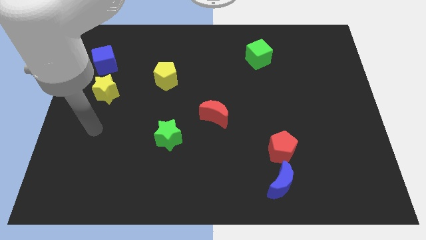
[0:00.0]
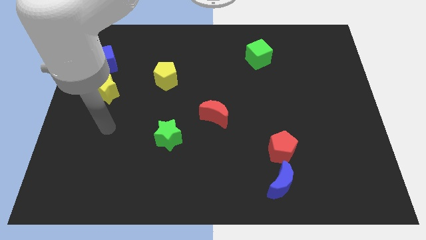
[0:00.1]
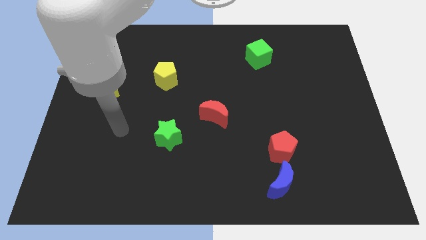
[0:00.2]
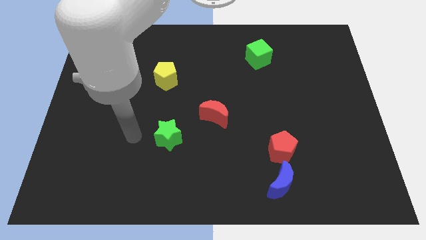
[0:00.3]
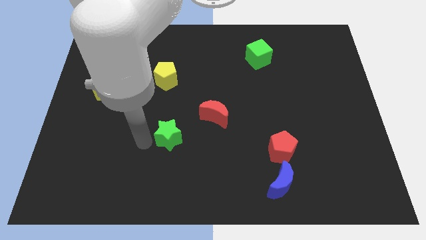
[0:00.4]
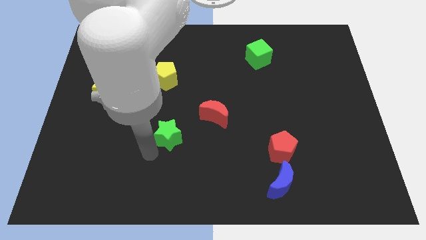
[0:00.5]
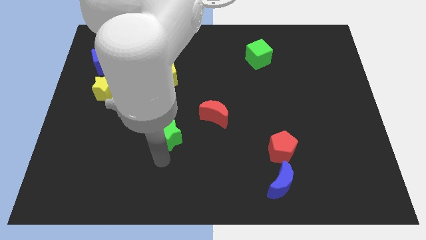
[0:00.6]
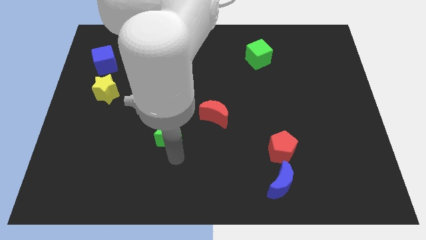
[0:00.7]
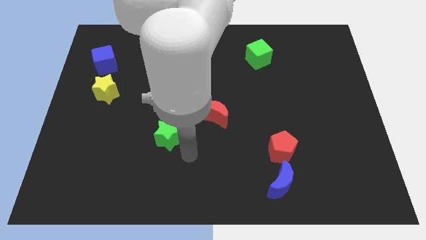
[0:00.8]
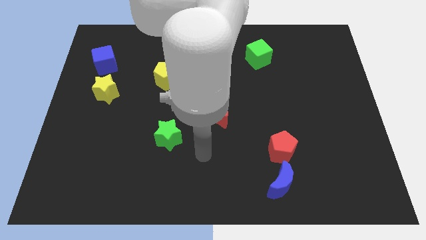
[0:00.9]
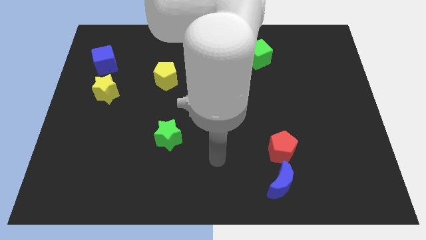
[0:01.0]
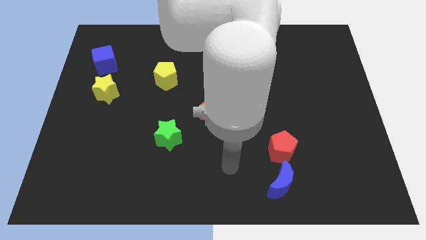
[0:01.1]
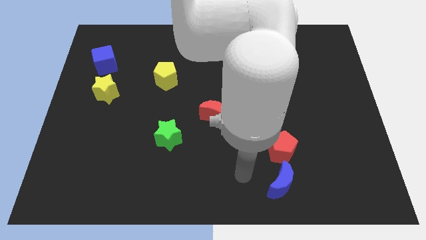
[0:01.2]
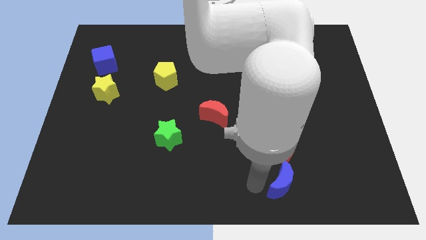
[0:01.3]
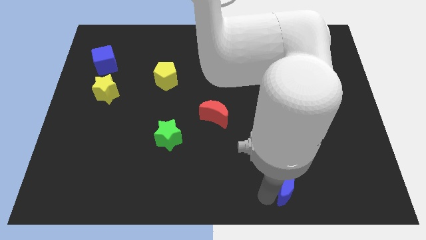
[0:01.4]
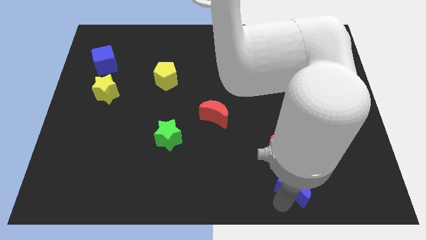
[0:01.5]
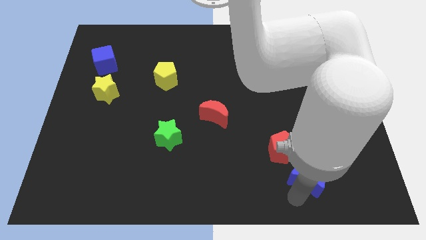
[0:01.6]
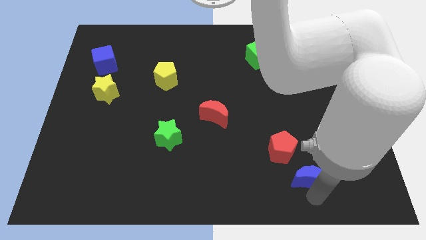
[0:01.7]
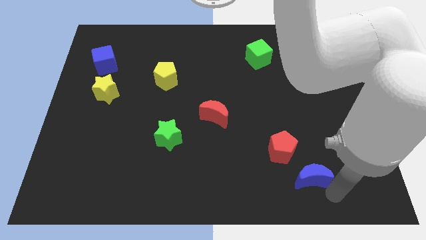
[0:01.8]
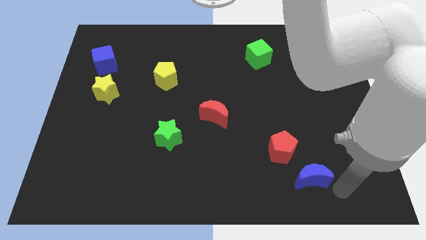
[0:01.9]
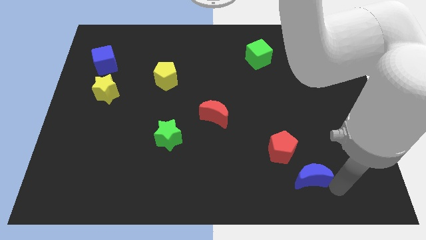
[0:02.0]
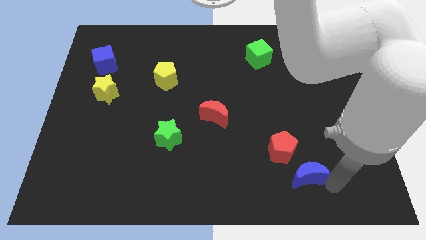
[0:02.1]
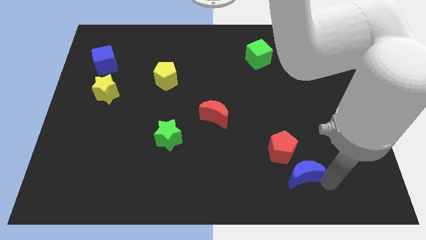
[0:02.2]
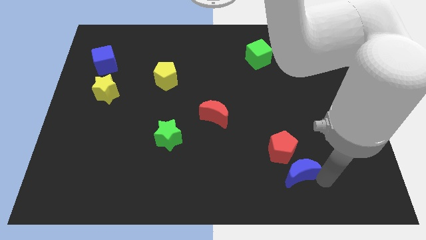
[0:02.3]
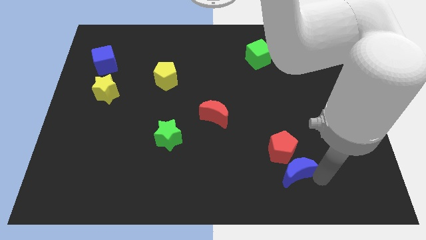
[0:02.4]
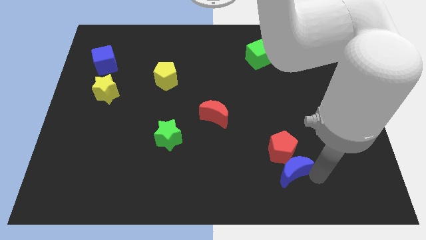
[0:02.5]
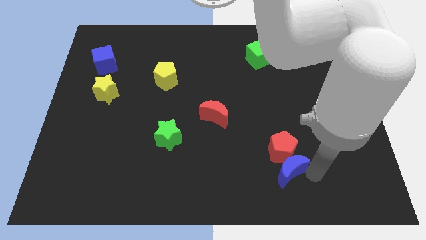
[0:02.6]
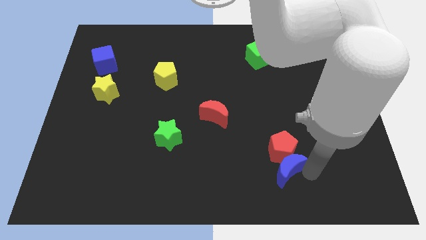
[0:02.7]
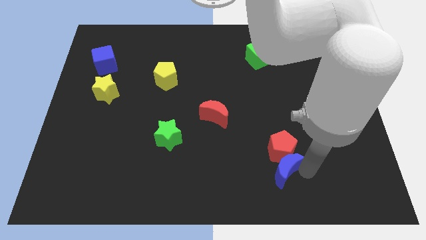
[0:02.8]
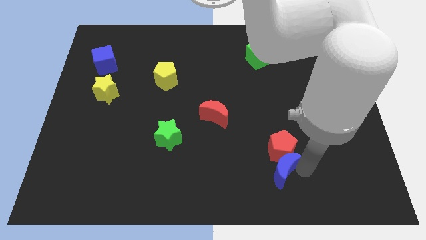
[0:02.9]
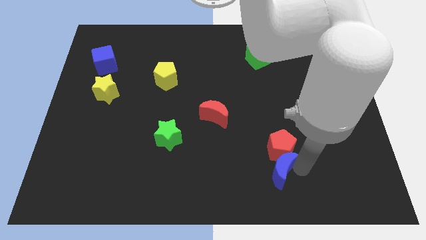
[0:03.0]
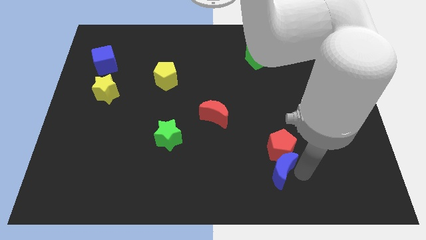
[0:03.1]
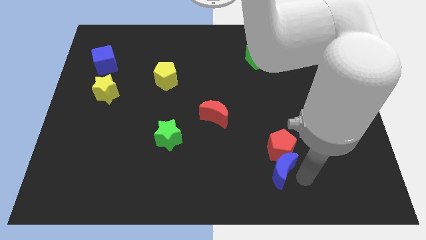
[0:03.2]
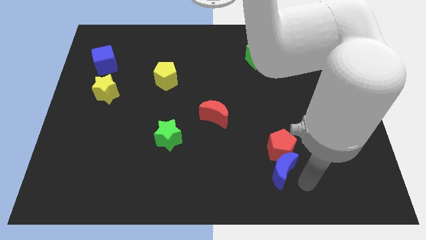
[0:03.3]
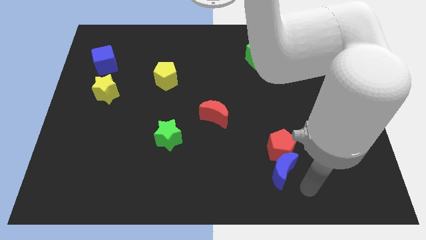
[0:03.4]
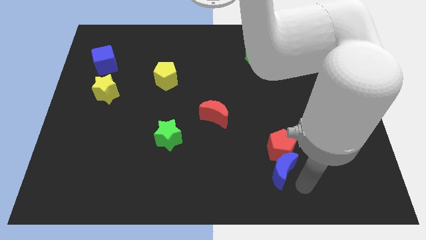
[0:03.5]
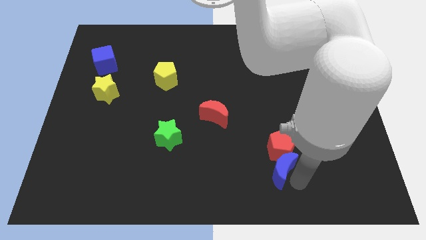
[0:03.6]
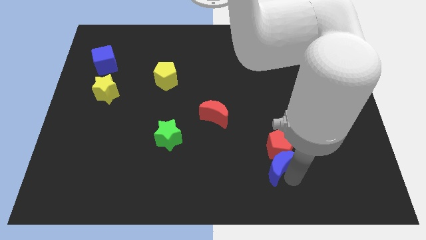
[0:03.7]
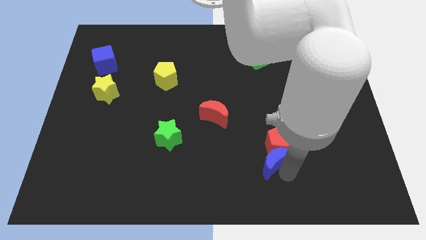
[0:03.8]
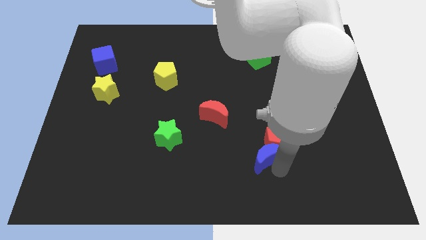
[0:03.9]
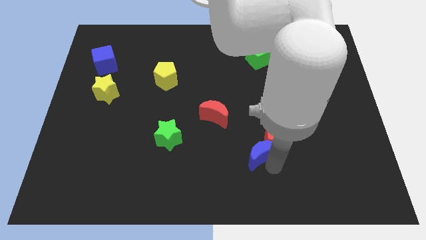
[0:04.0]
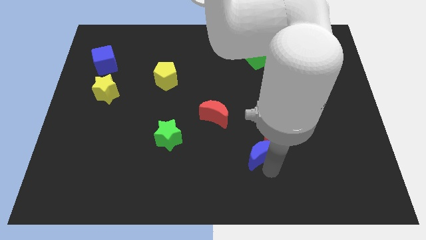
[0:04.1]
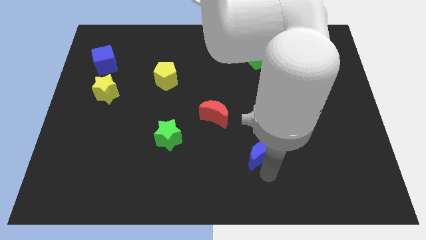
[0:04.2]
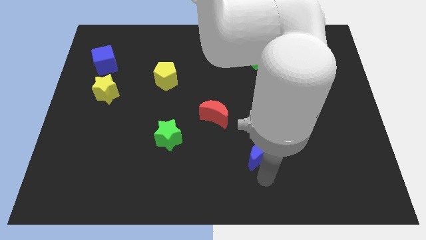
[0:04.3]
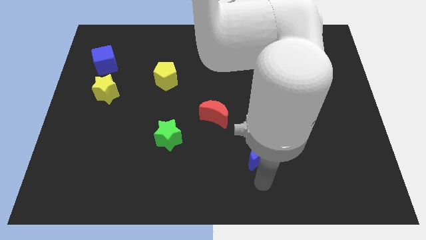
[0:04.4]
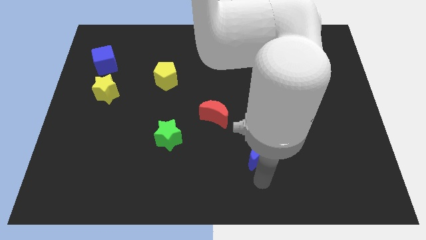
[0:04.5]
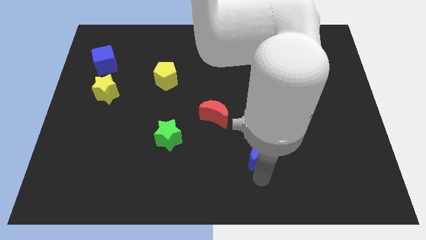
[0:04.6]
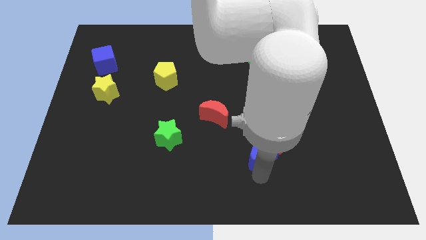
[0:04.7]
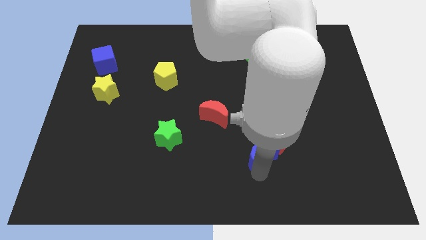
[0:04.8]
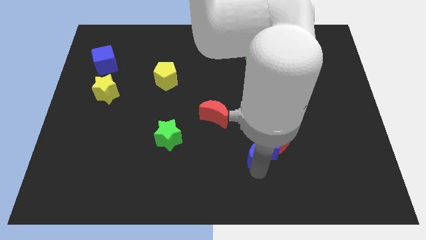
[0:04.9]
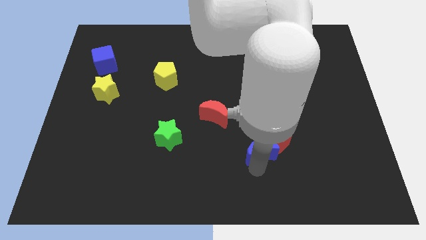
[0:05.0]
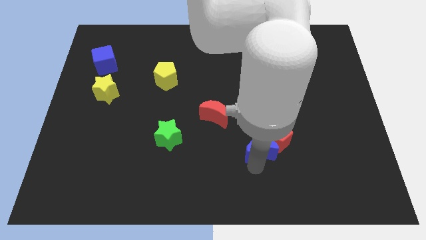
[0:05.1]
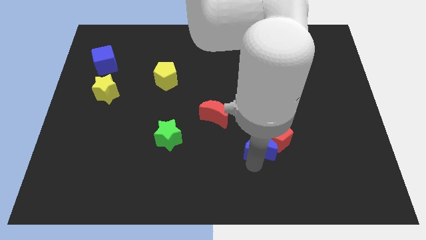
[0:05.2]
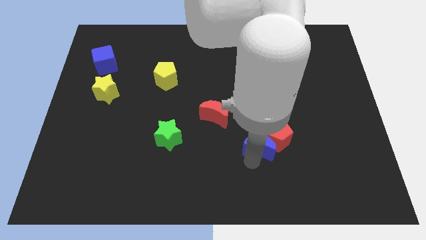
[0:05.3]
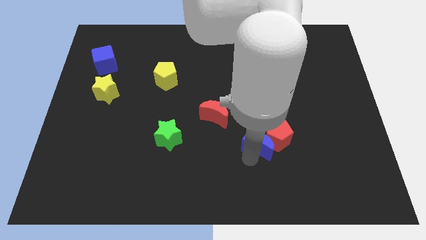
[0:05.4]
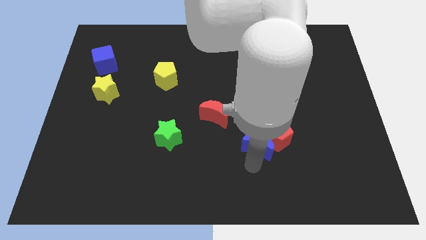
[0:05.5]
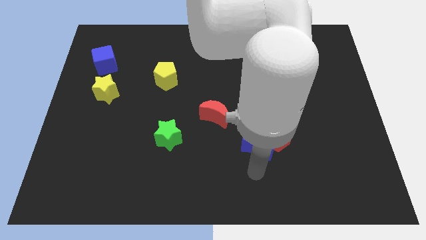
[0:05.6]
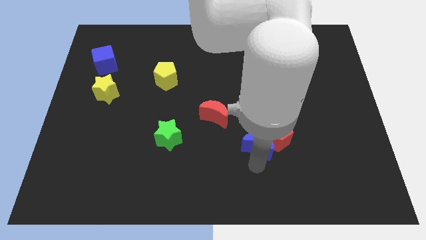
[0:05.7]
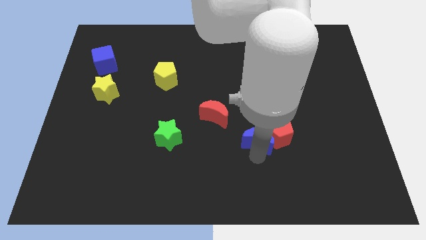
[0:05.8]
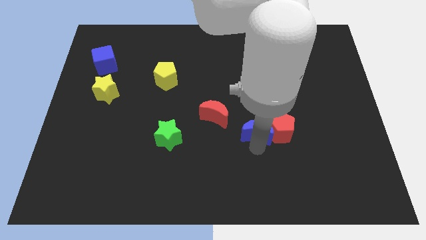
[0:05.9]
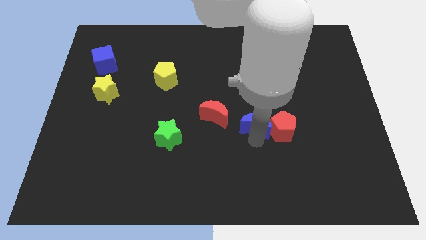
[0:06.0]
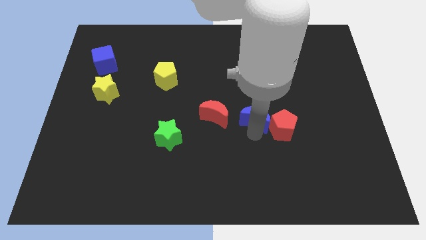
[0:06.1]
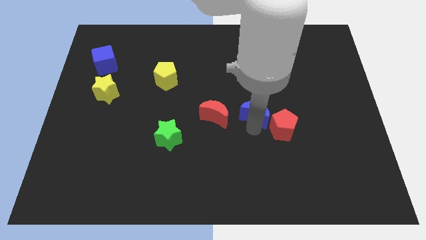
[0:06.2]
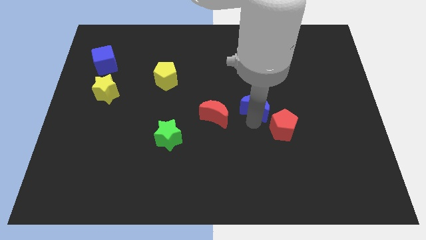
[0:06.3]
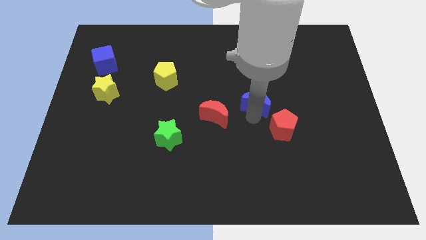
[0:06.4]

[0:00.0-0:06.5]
push the blue moon upwards

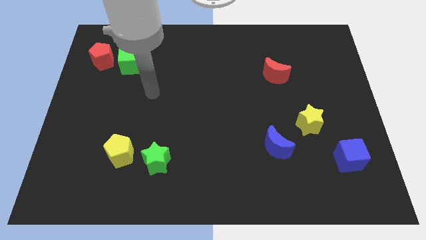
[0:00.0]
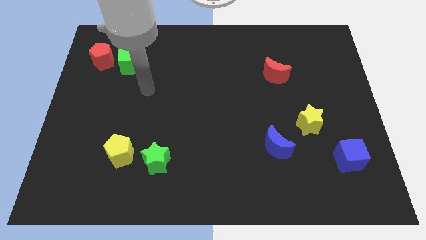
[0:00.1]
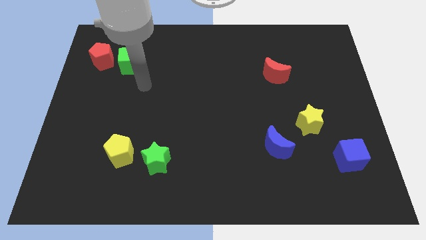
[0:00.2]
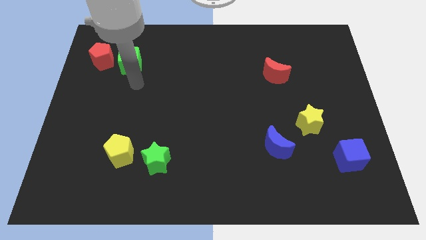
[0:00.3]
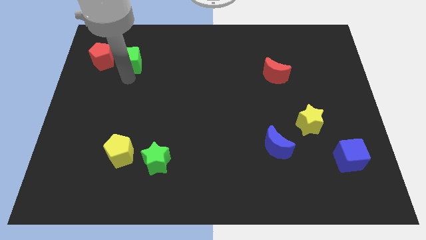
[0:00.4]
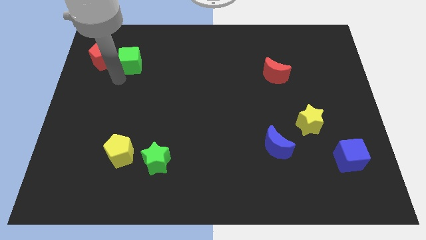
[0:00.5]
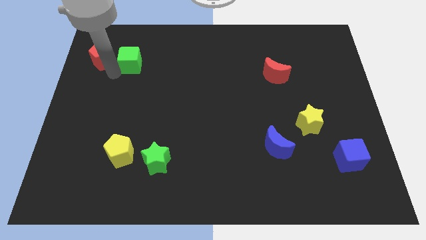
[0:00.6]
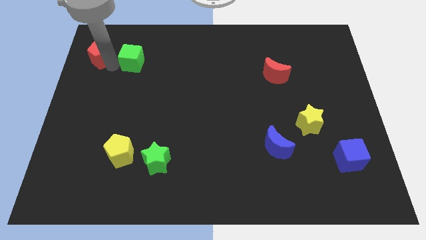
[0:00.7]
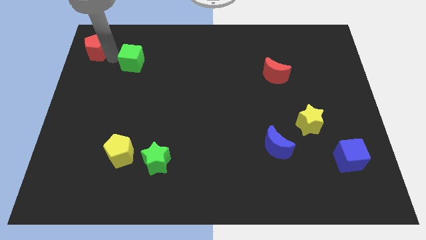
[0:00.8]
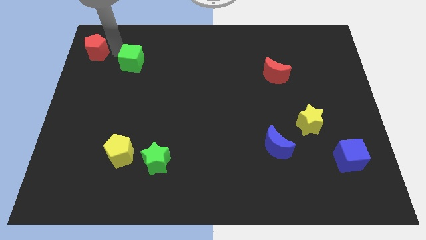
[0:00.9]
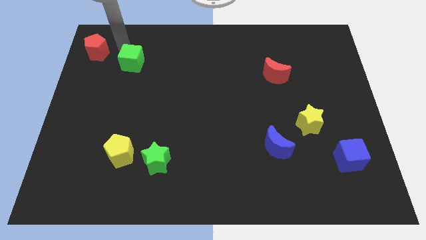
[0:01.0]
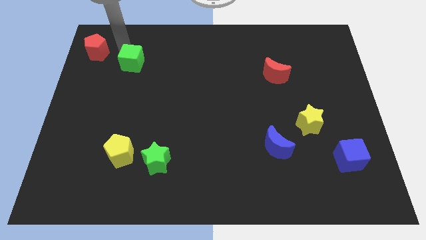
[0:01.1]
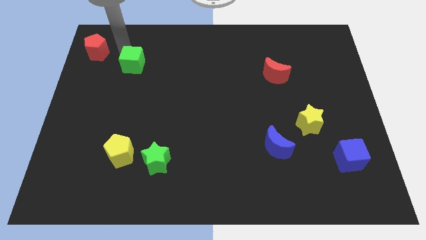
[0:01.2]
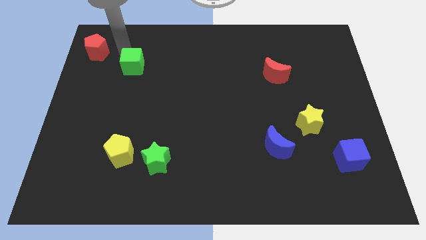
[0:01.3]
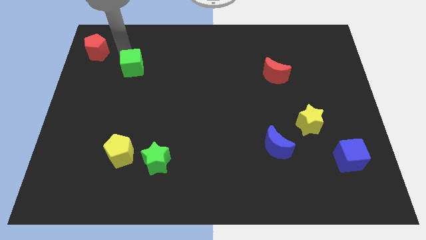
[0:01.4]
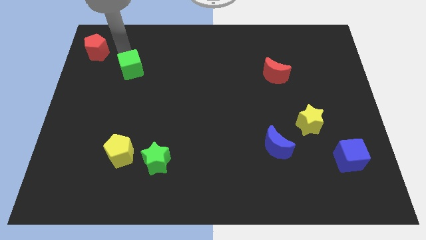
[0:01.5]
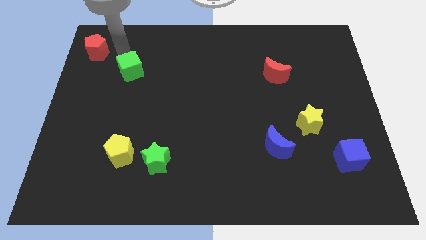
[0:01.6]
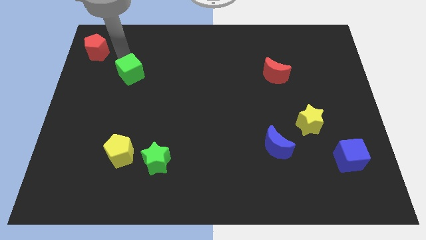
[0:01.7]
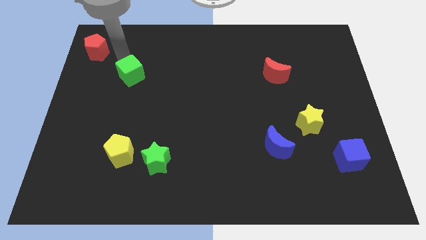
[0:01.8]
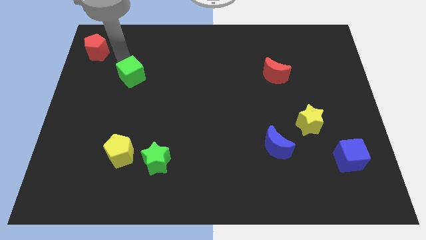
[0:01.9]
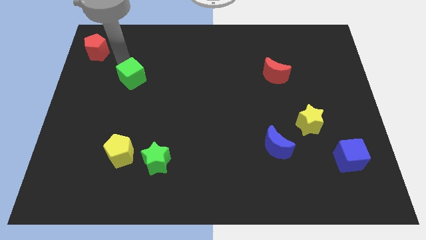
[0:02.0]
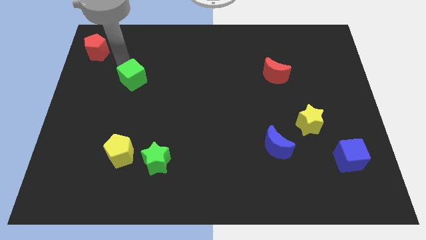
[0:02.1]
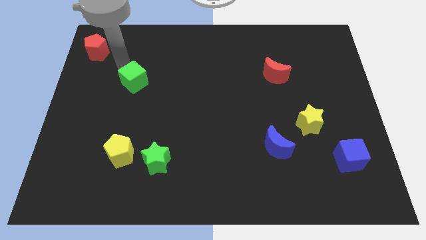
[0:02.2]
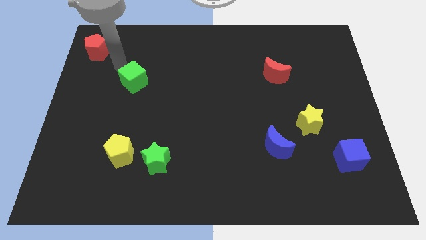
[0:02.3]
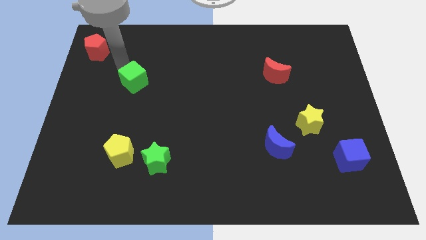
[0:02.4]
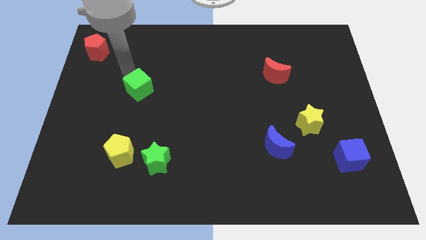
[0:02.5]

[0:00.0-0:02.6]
slide the green cube downwards and right diagonally a bit
